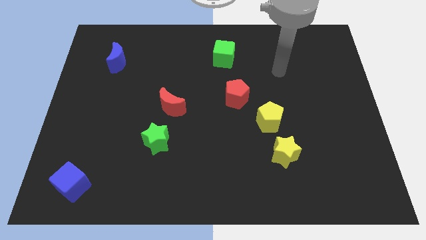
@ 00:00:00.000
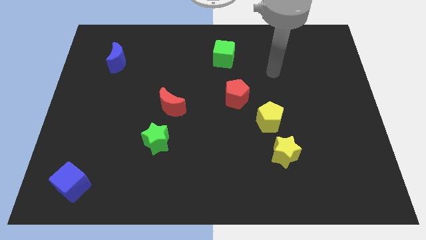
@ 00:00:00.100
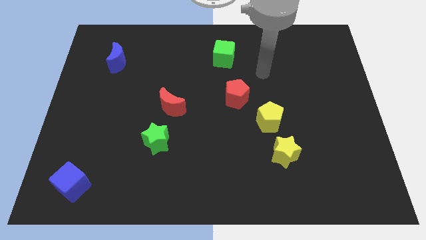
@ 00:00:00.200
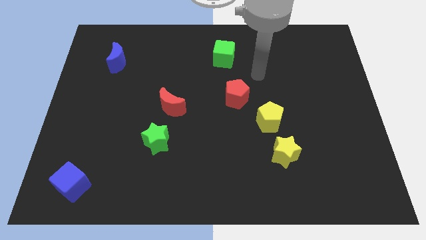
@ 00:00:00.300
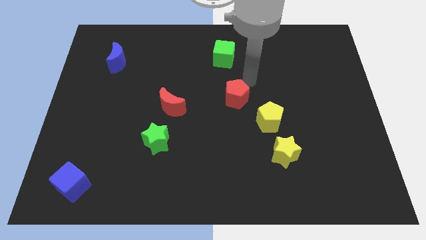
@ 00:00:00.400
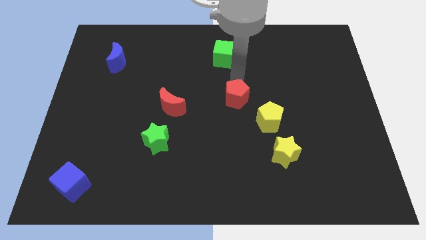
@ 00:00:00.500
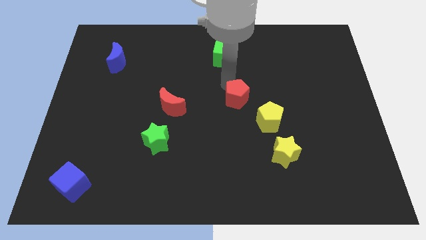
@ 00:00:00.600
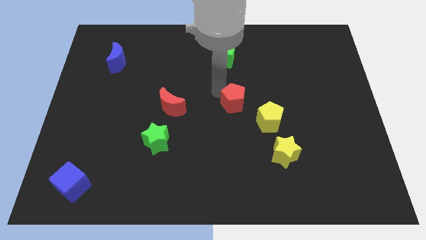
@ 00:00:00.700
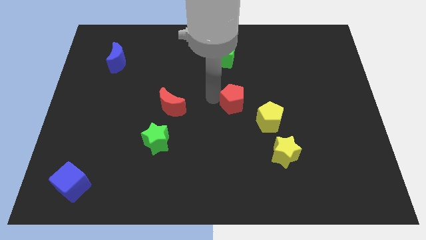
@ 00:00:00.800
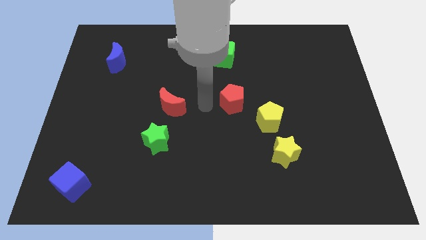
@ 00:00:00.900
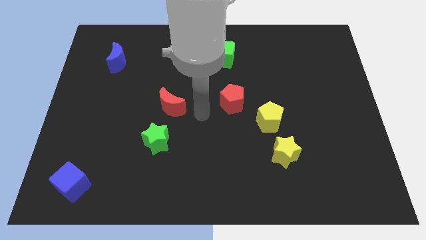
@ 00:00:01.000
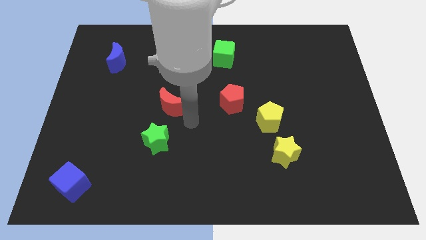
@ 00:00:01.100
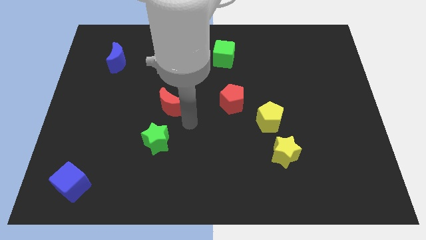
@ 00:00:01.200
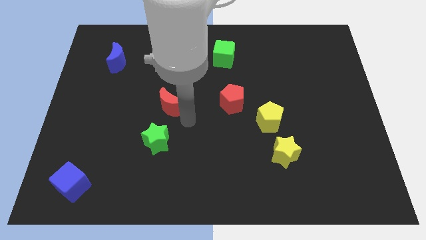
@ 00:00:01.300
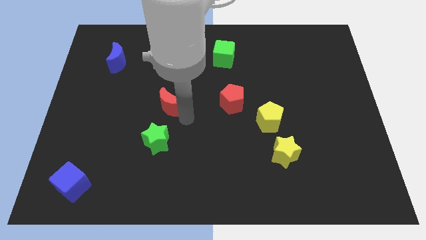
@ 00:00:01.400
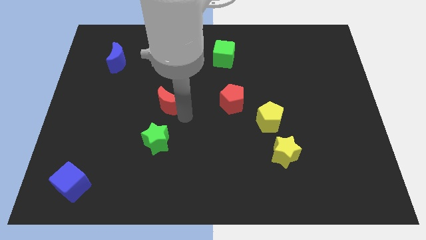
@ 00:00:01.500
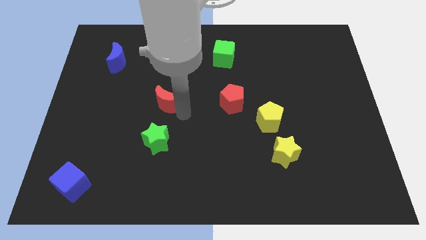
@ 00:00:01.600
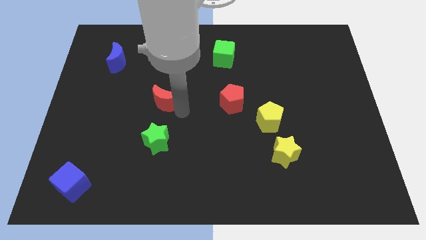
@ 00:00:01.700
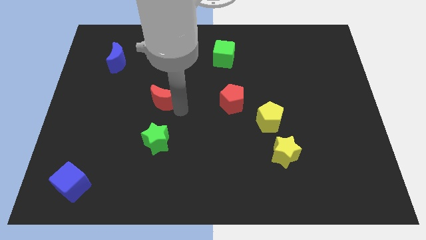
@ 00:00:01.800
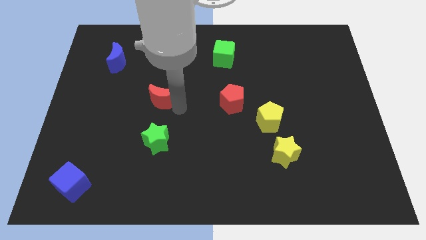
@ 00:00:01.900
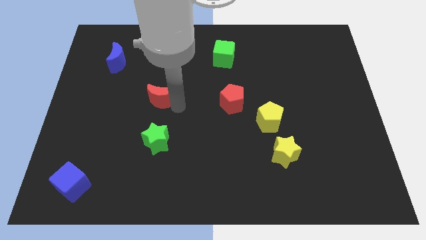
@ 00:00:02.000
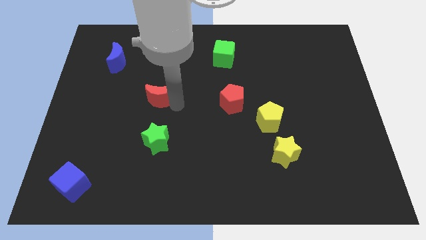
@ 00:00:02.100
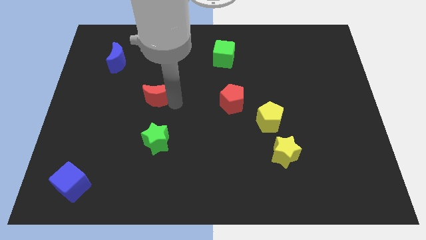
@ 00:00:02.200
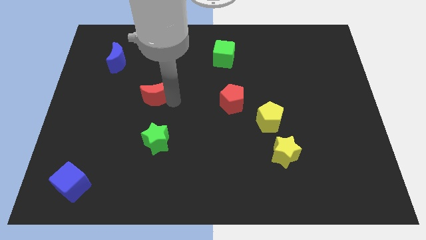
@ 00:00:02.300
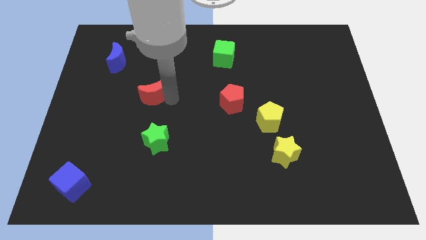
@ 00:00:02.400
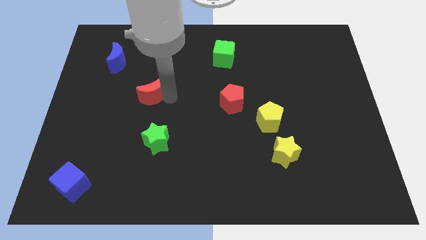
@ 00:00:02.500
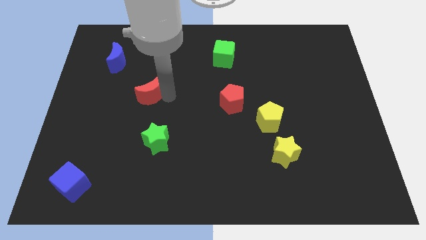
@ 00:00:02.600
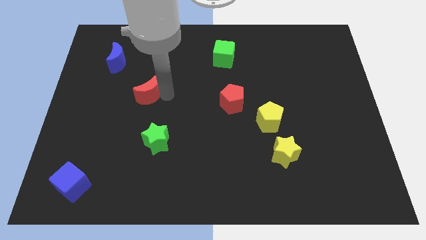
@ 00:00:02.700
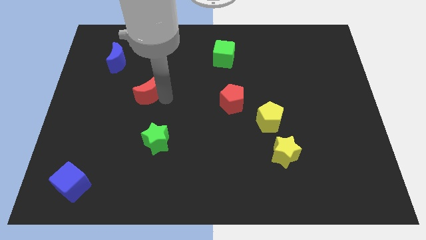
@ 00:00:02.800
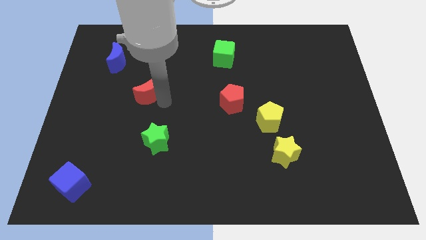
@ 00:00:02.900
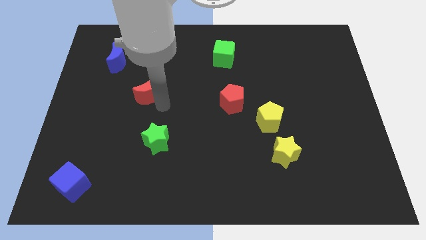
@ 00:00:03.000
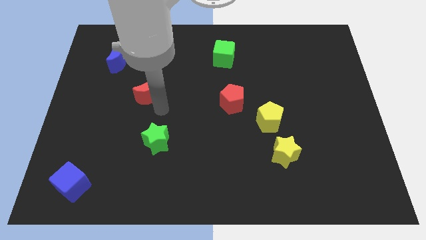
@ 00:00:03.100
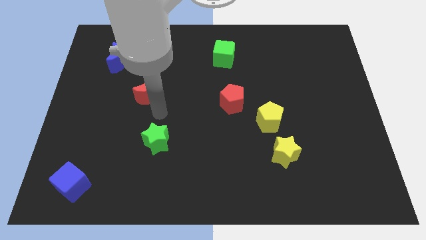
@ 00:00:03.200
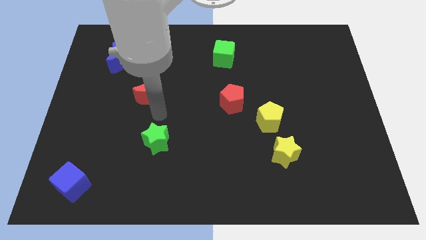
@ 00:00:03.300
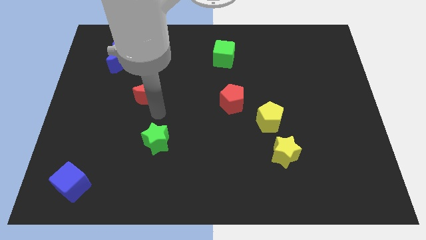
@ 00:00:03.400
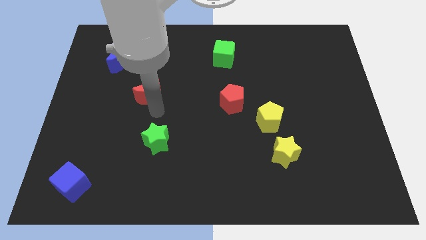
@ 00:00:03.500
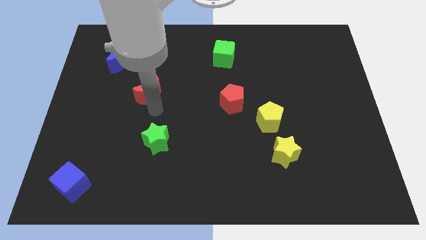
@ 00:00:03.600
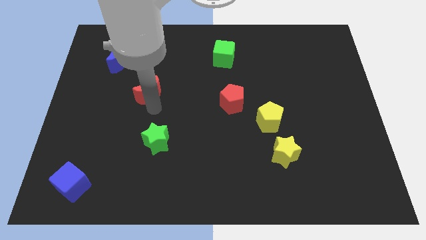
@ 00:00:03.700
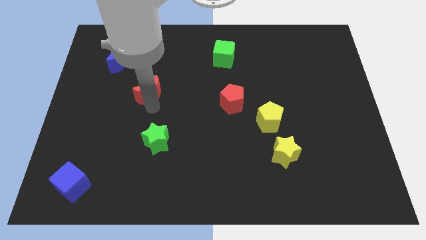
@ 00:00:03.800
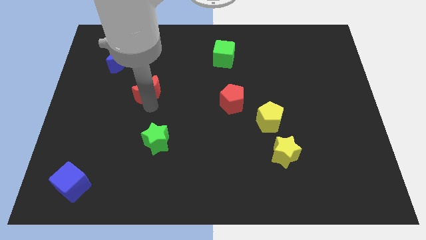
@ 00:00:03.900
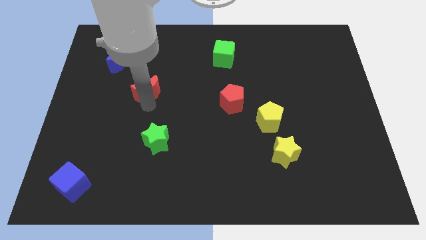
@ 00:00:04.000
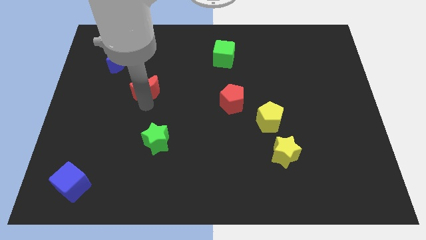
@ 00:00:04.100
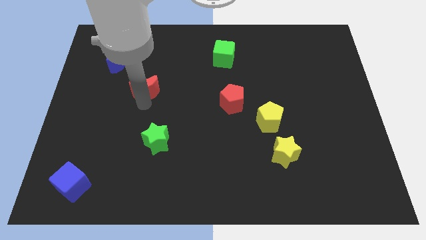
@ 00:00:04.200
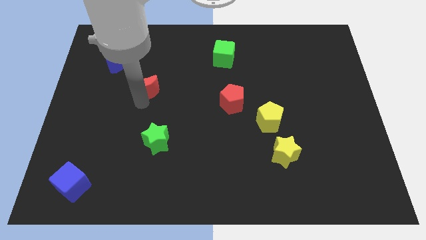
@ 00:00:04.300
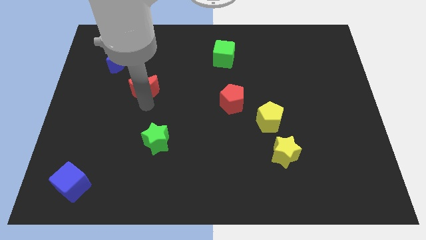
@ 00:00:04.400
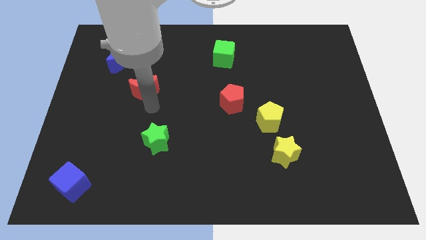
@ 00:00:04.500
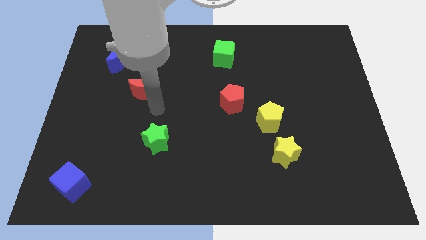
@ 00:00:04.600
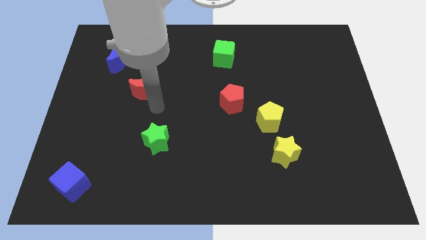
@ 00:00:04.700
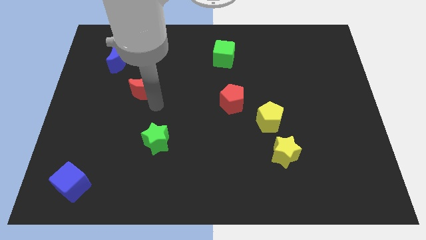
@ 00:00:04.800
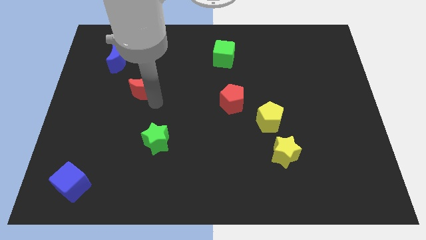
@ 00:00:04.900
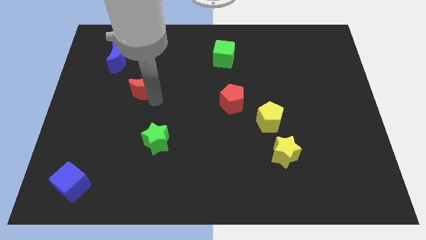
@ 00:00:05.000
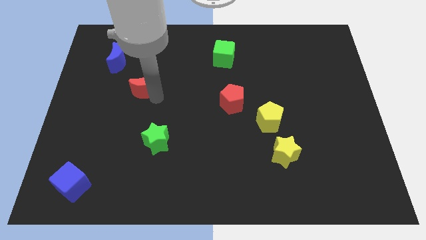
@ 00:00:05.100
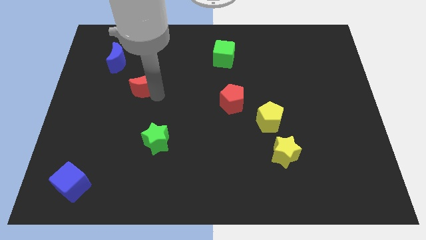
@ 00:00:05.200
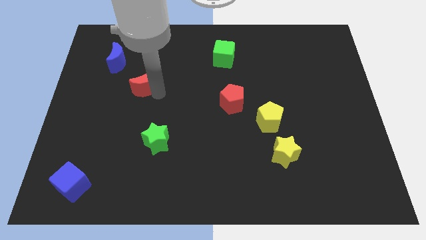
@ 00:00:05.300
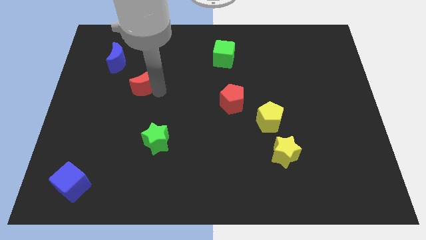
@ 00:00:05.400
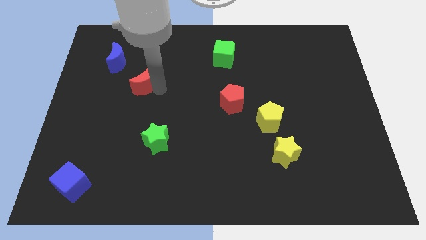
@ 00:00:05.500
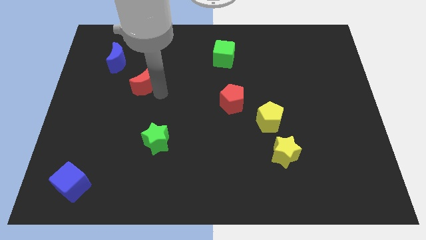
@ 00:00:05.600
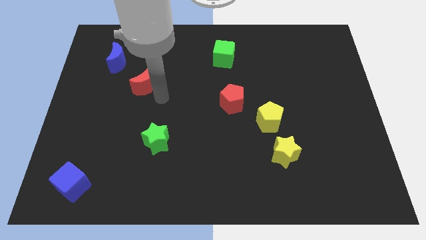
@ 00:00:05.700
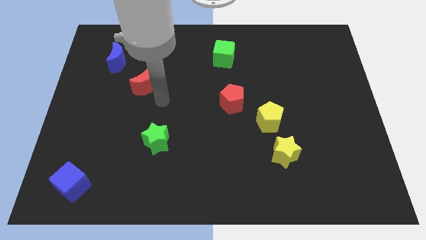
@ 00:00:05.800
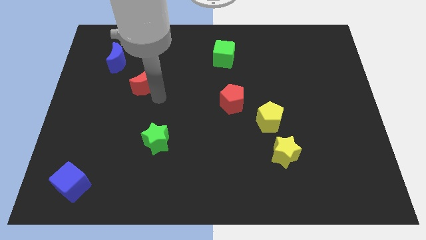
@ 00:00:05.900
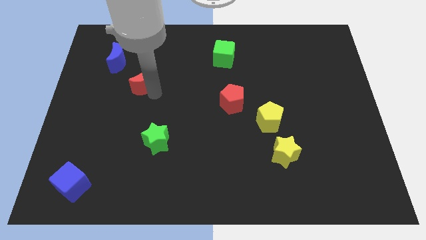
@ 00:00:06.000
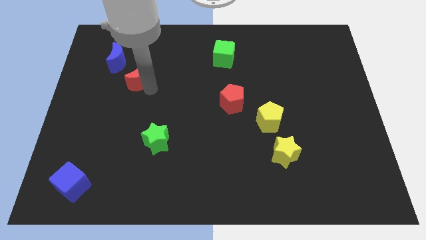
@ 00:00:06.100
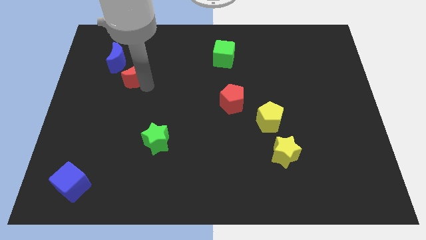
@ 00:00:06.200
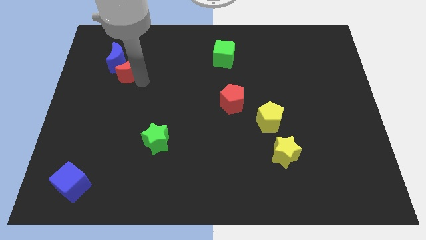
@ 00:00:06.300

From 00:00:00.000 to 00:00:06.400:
slide the red moon towards the blue moon
